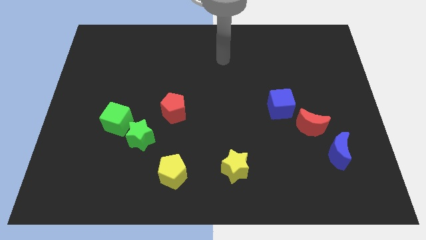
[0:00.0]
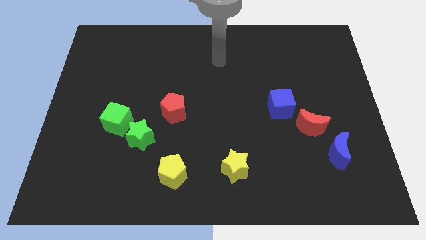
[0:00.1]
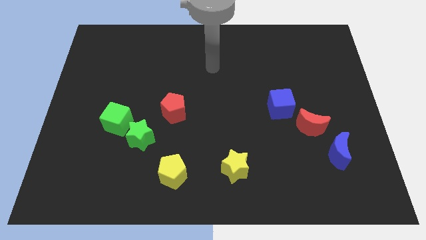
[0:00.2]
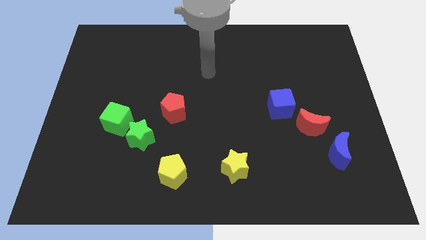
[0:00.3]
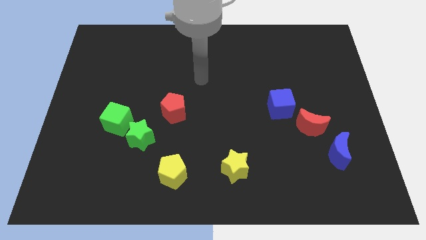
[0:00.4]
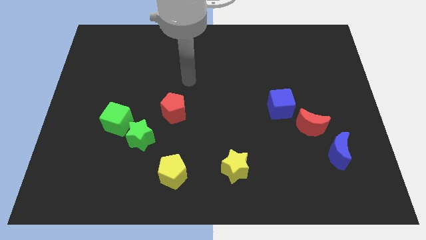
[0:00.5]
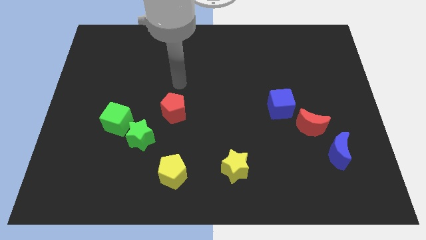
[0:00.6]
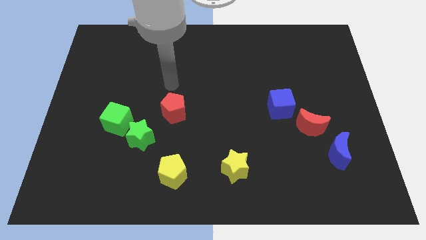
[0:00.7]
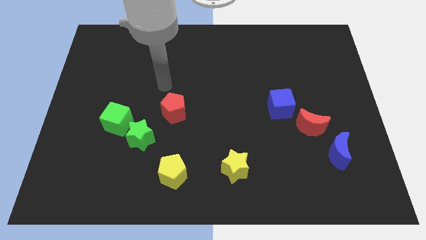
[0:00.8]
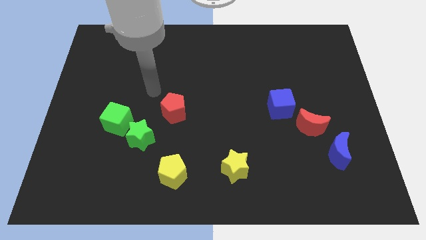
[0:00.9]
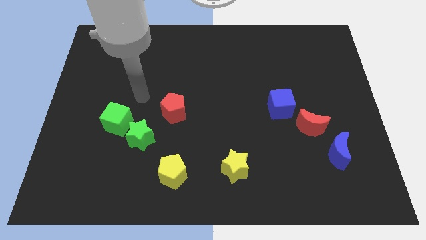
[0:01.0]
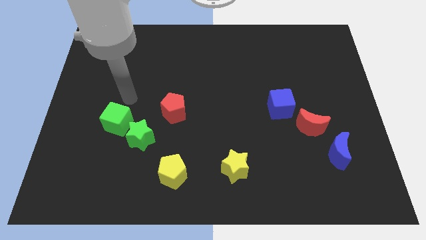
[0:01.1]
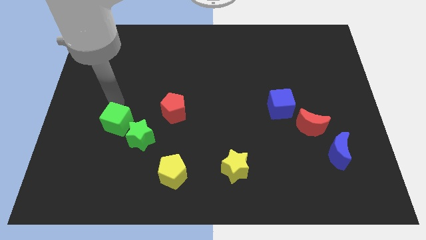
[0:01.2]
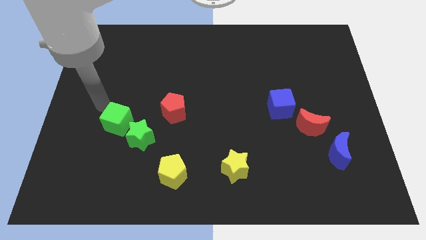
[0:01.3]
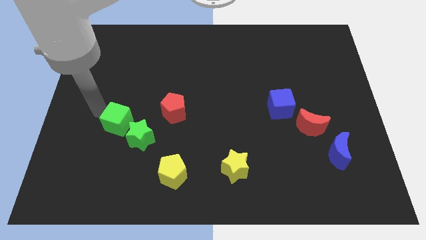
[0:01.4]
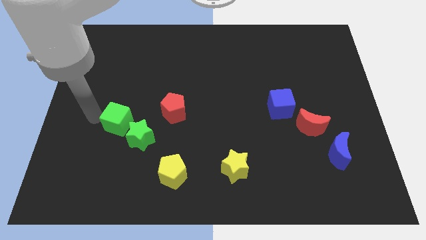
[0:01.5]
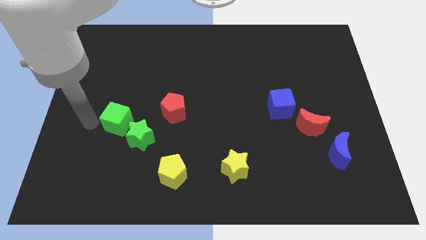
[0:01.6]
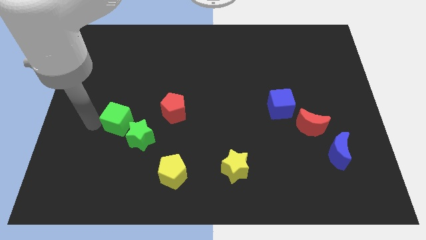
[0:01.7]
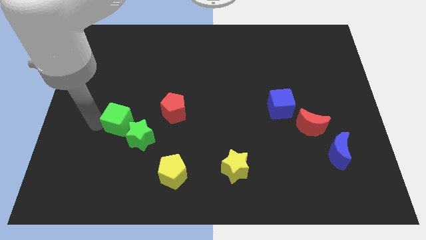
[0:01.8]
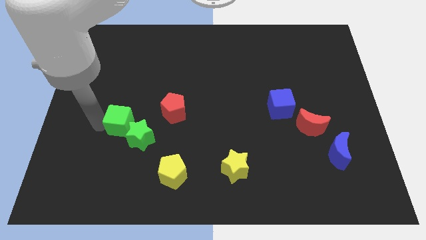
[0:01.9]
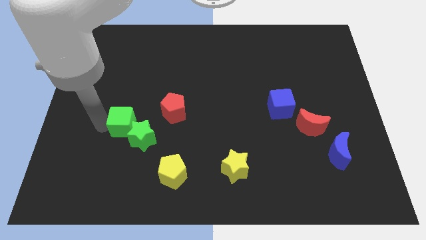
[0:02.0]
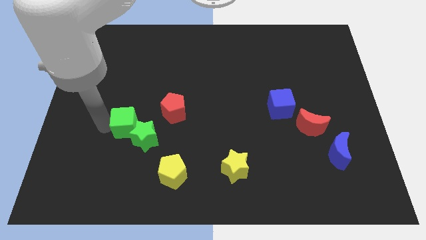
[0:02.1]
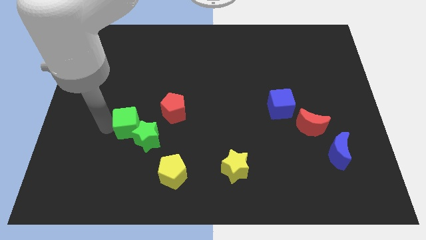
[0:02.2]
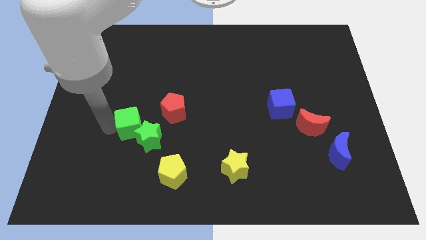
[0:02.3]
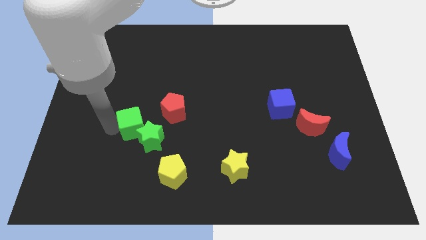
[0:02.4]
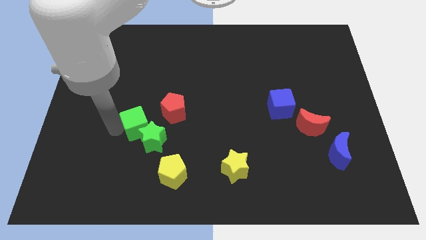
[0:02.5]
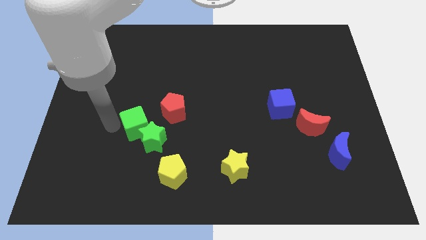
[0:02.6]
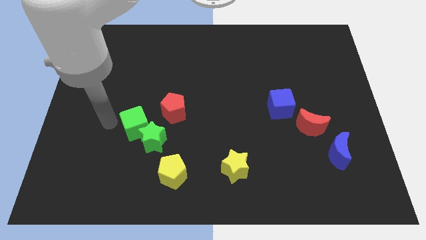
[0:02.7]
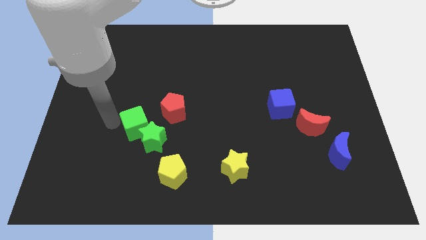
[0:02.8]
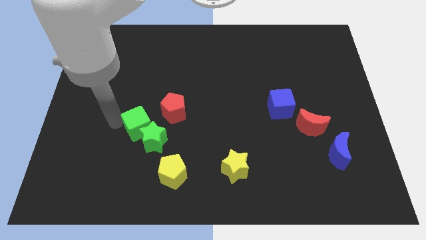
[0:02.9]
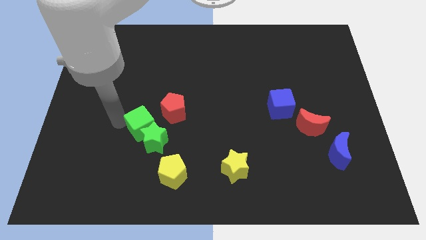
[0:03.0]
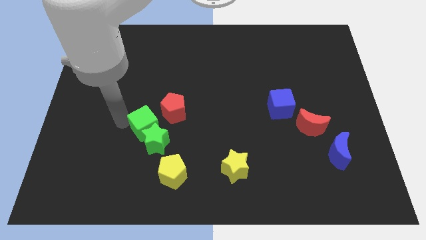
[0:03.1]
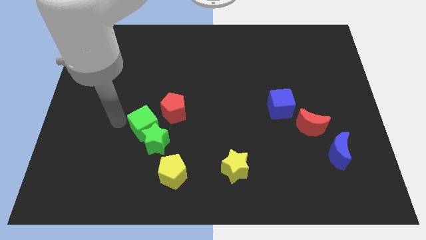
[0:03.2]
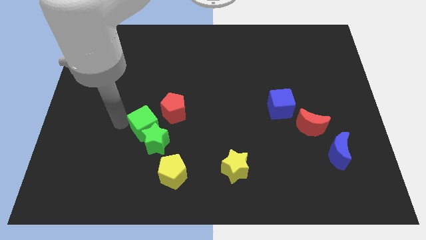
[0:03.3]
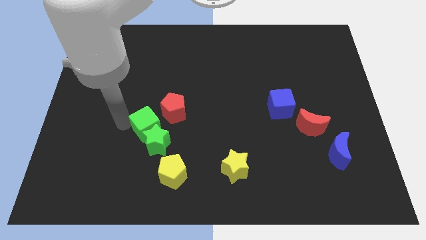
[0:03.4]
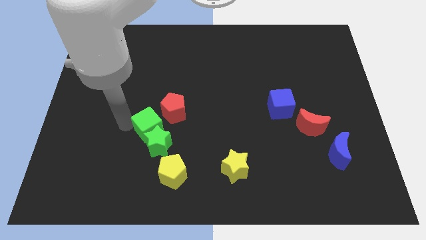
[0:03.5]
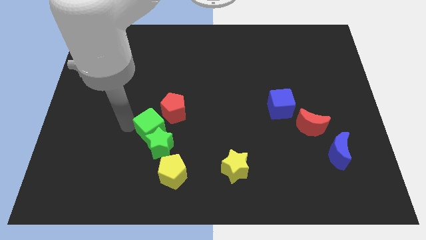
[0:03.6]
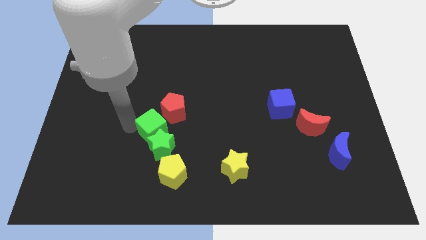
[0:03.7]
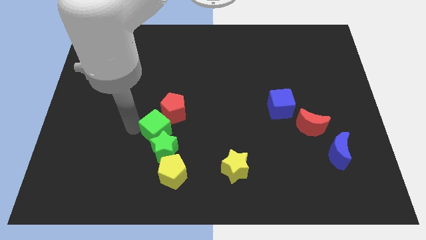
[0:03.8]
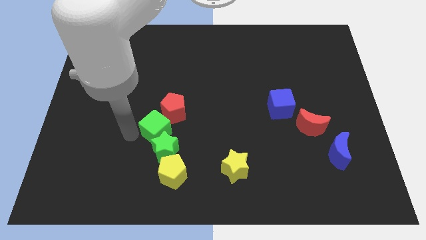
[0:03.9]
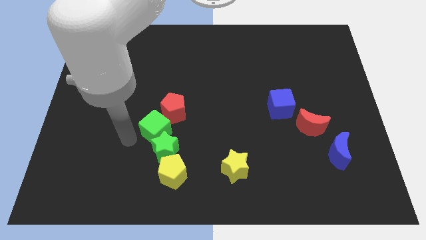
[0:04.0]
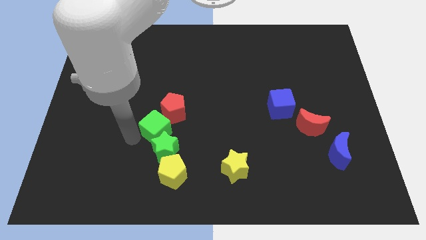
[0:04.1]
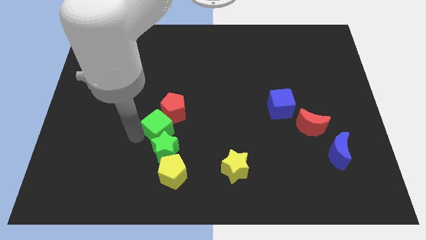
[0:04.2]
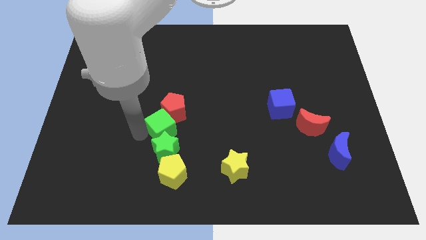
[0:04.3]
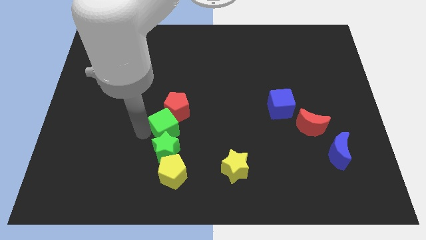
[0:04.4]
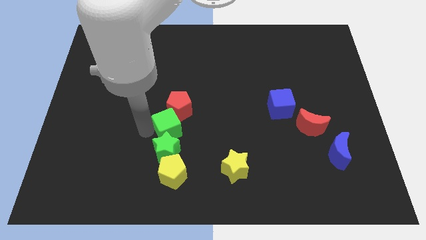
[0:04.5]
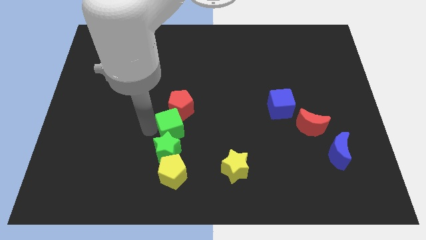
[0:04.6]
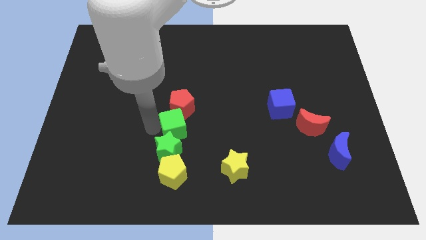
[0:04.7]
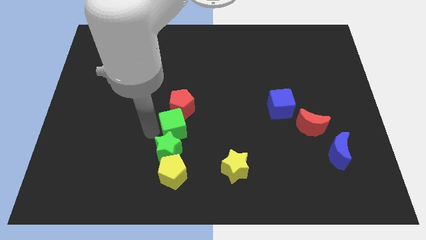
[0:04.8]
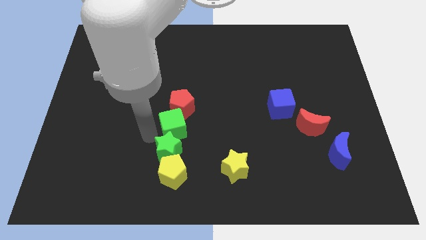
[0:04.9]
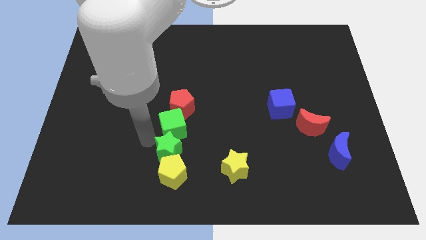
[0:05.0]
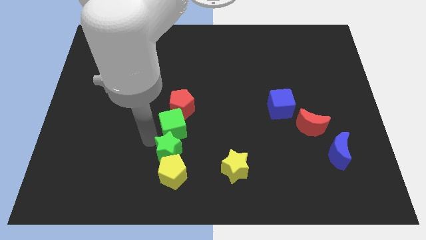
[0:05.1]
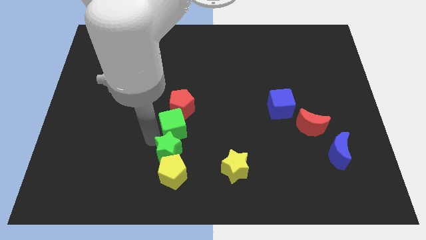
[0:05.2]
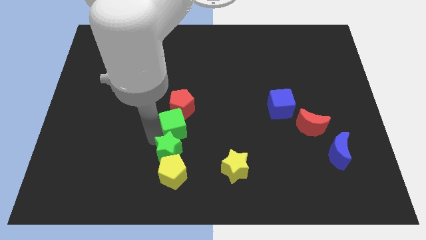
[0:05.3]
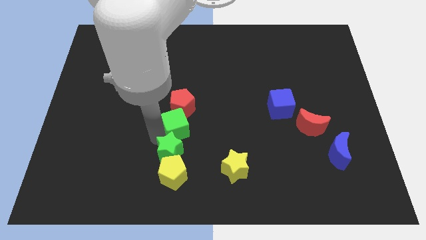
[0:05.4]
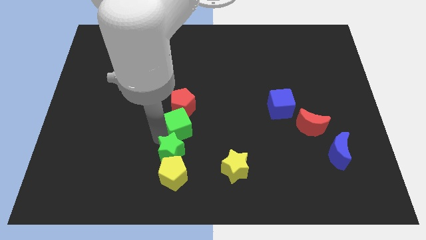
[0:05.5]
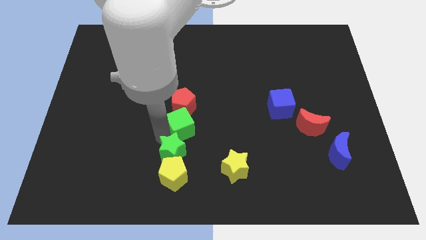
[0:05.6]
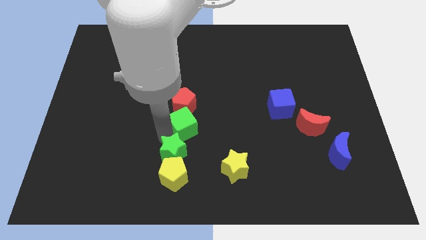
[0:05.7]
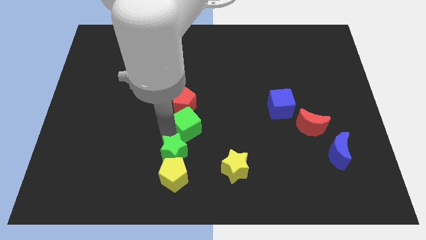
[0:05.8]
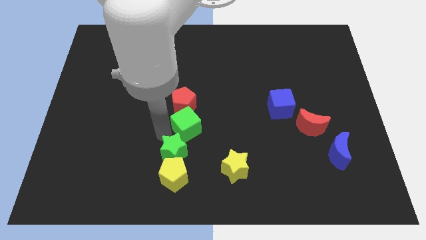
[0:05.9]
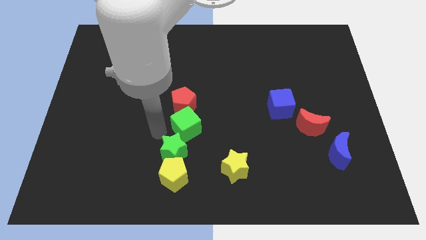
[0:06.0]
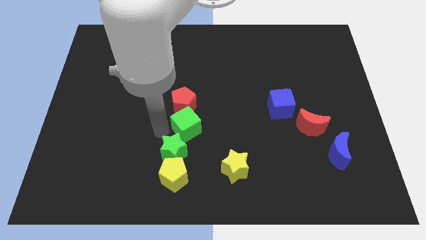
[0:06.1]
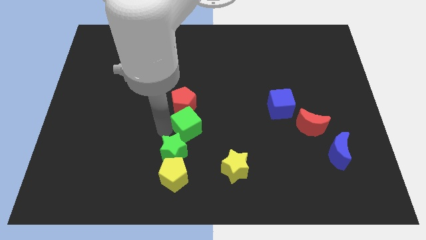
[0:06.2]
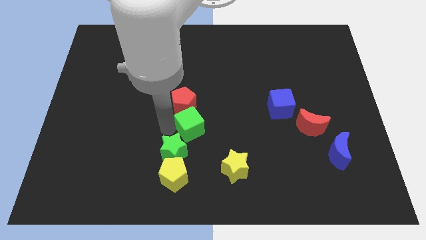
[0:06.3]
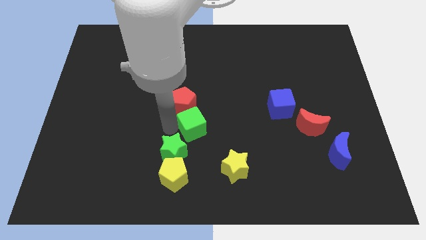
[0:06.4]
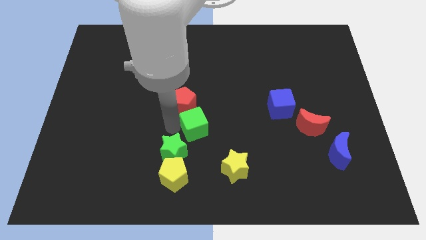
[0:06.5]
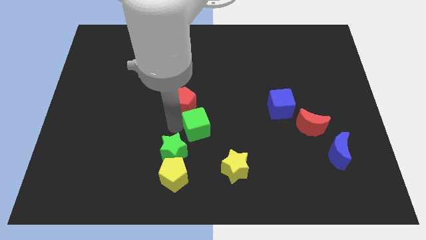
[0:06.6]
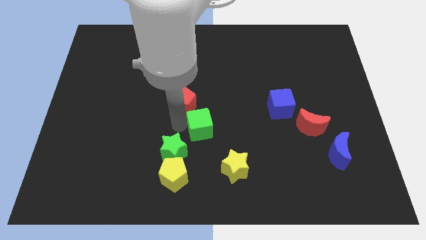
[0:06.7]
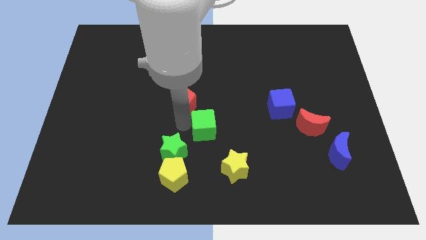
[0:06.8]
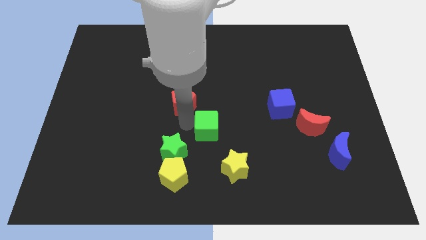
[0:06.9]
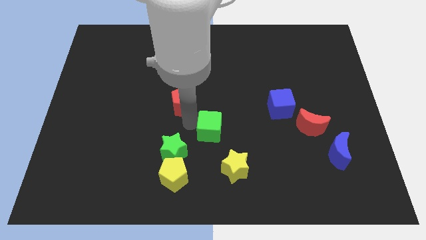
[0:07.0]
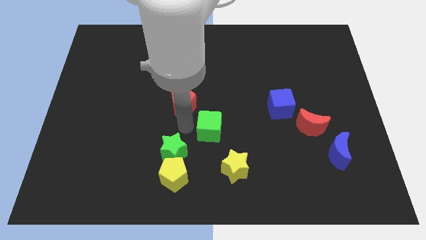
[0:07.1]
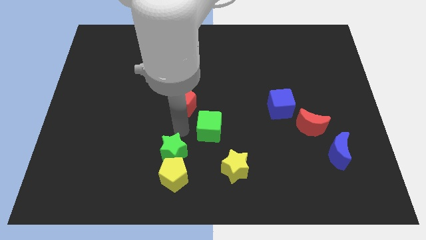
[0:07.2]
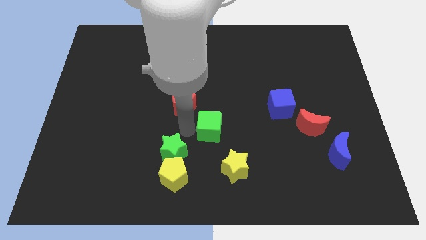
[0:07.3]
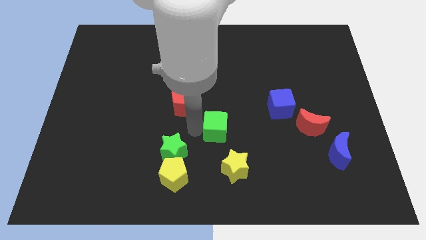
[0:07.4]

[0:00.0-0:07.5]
move the green cube above the yellow star
